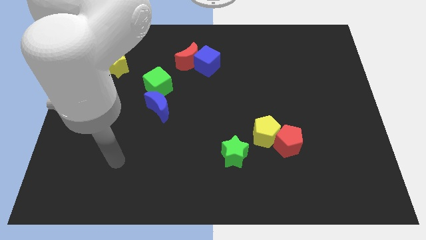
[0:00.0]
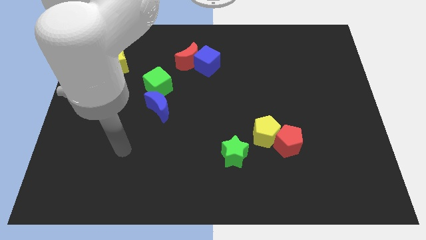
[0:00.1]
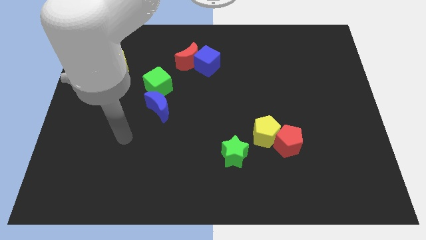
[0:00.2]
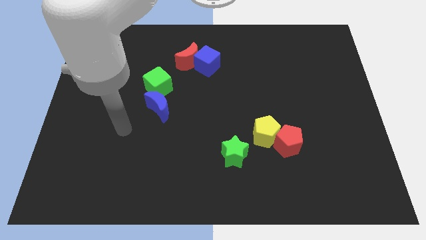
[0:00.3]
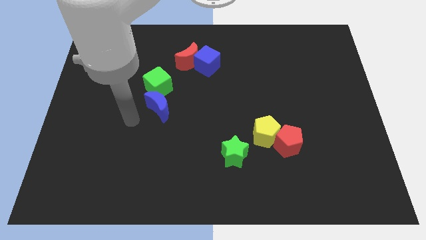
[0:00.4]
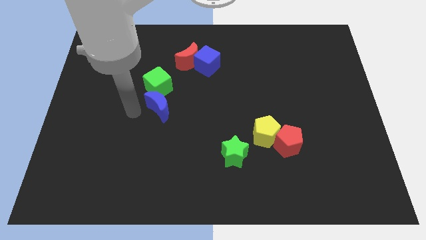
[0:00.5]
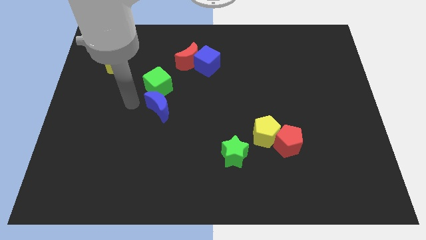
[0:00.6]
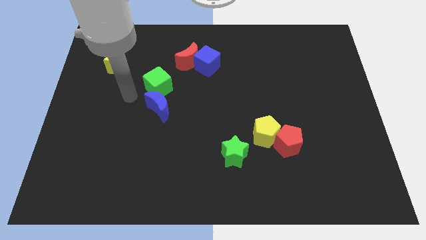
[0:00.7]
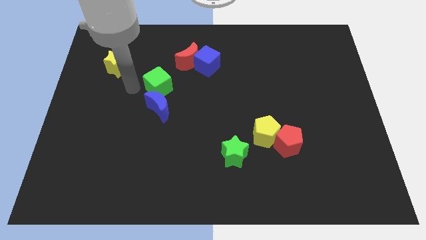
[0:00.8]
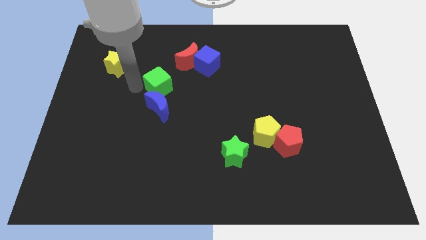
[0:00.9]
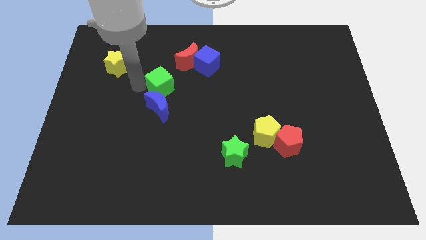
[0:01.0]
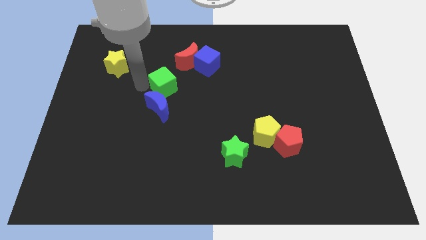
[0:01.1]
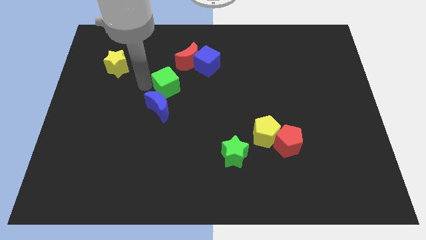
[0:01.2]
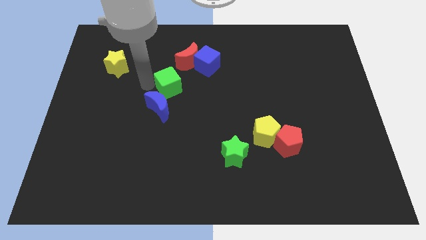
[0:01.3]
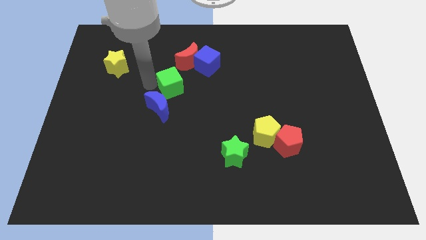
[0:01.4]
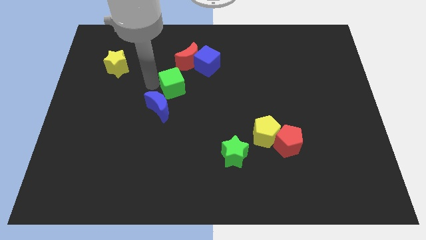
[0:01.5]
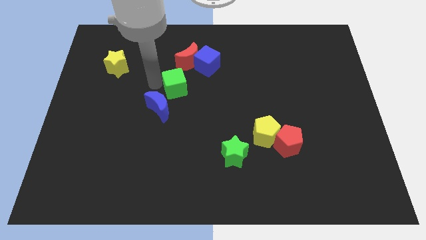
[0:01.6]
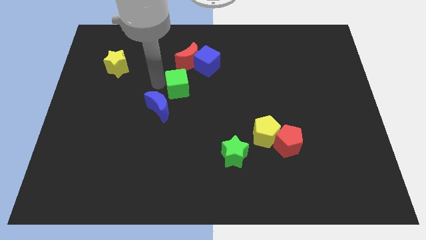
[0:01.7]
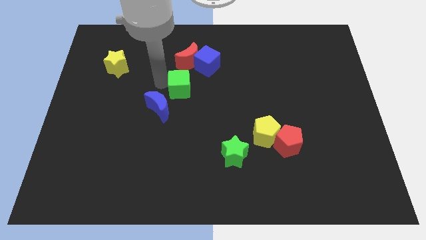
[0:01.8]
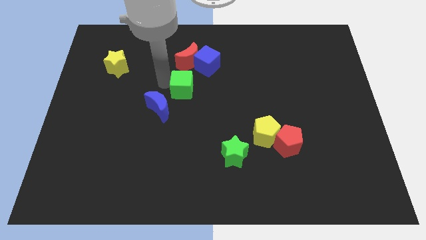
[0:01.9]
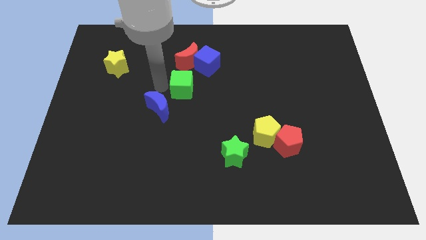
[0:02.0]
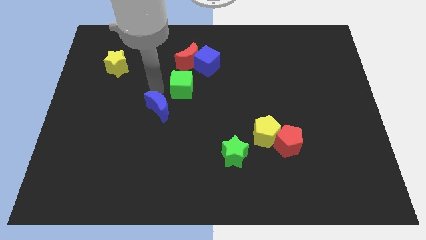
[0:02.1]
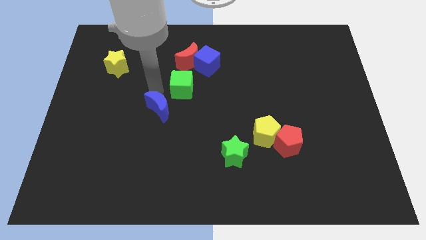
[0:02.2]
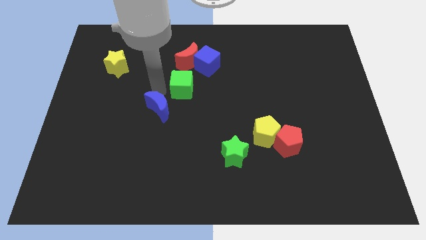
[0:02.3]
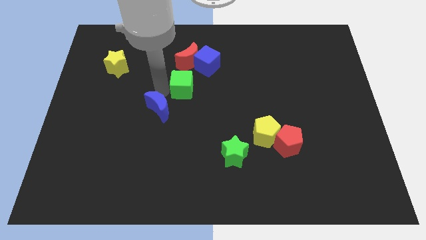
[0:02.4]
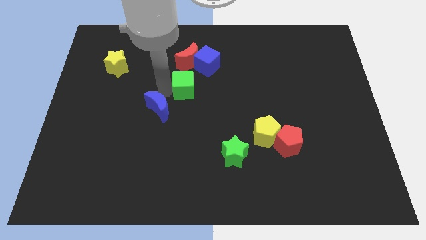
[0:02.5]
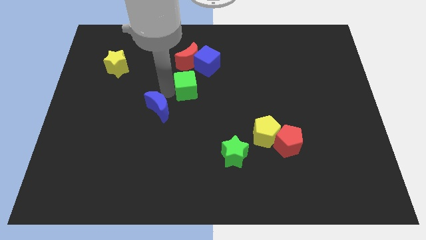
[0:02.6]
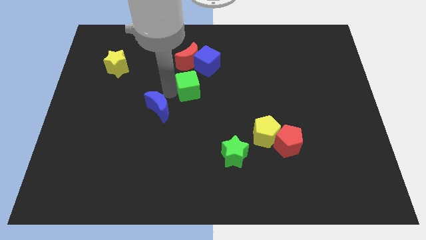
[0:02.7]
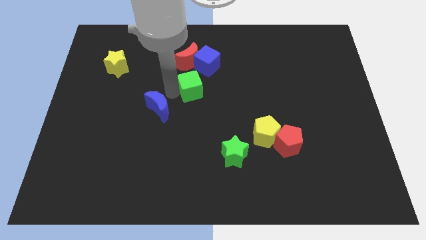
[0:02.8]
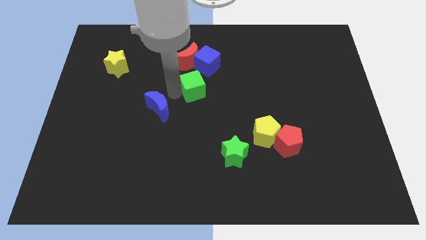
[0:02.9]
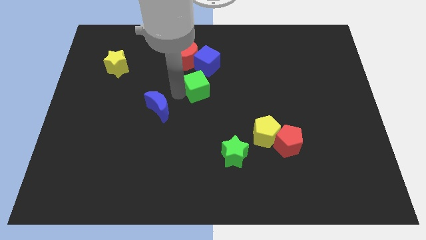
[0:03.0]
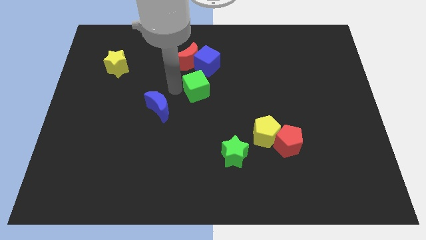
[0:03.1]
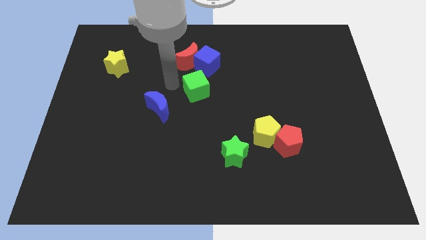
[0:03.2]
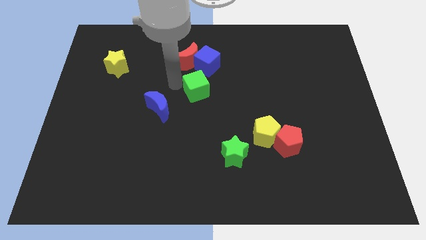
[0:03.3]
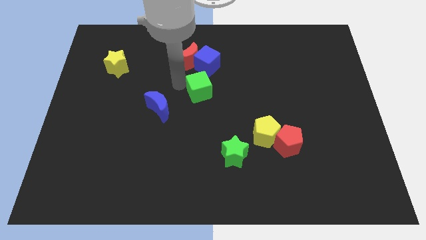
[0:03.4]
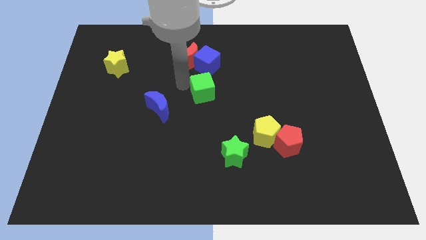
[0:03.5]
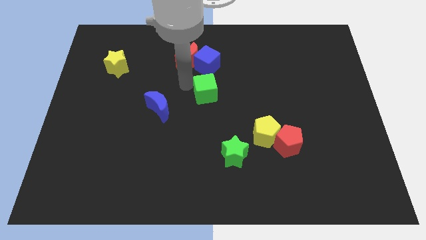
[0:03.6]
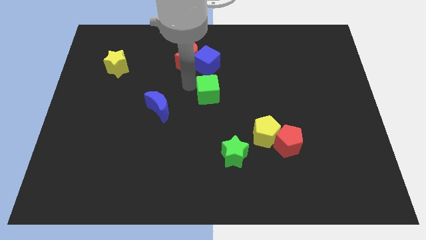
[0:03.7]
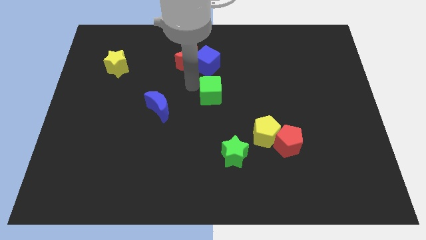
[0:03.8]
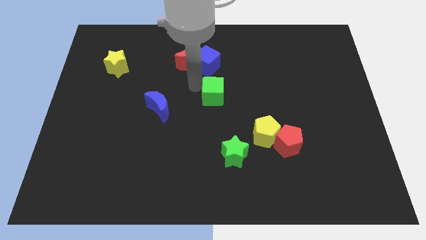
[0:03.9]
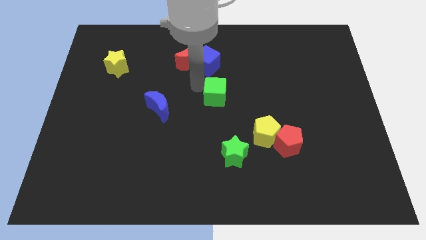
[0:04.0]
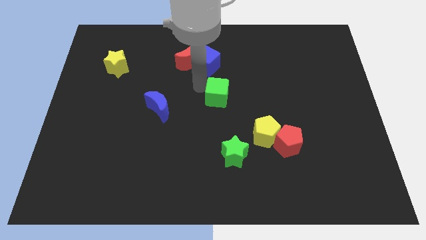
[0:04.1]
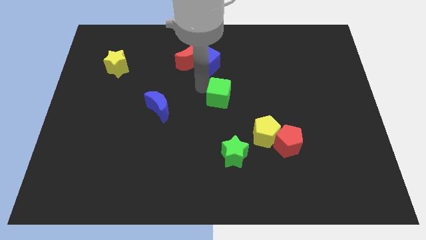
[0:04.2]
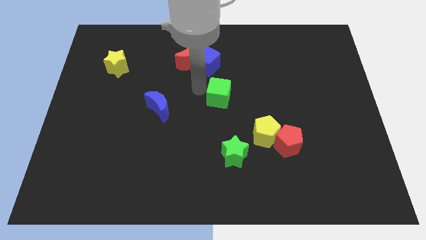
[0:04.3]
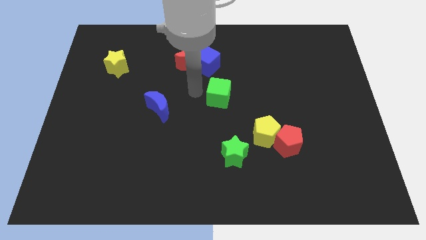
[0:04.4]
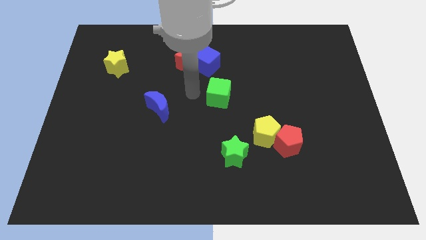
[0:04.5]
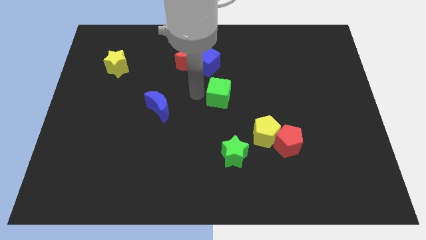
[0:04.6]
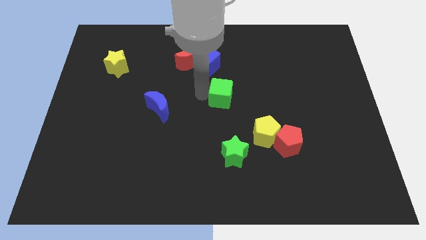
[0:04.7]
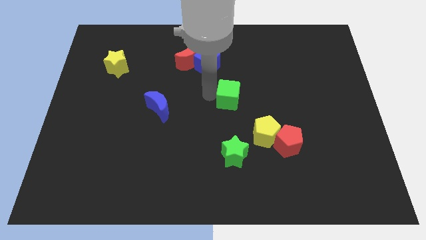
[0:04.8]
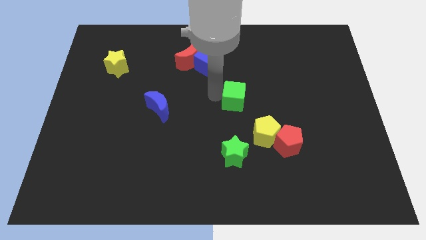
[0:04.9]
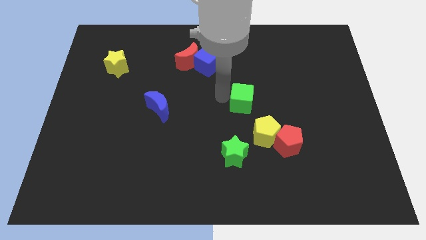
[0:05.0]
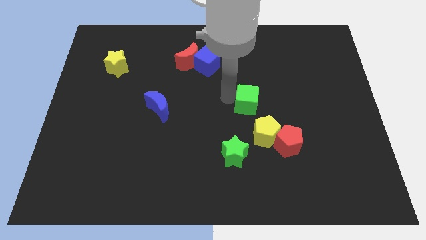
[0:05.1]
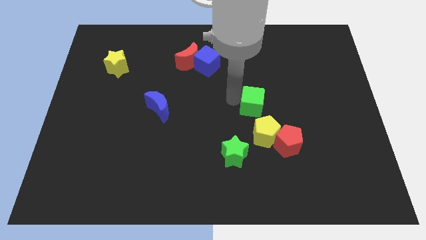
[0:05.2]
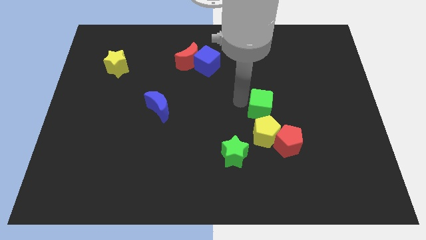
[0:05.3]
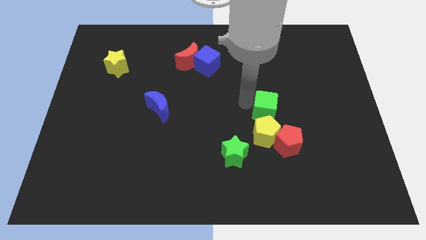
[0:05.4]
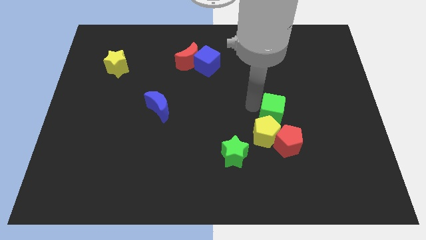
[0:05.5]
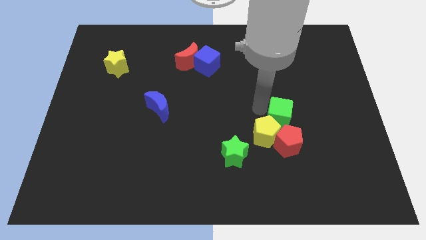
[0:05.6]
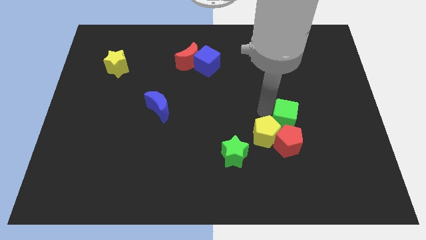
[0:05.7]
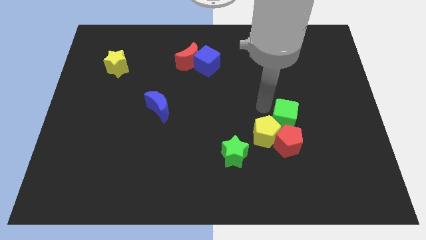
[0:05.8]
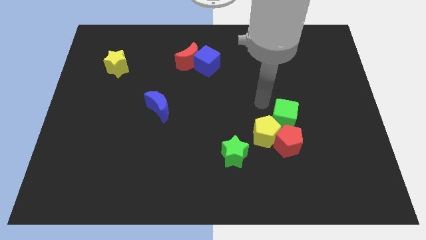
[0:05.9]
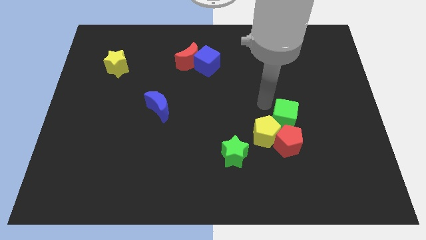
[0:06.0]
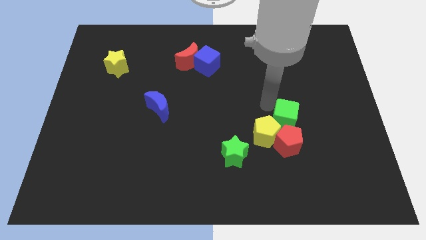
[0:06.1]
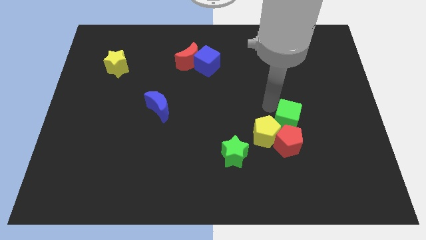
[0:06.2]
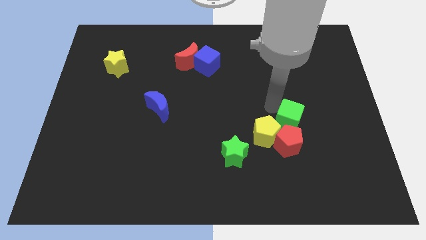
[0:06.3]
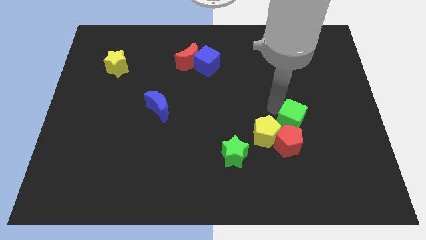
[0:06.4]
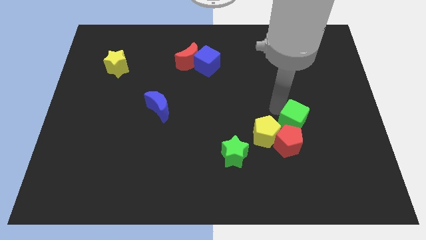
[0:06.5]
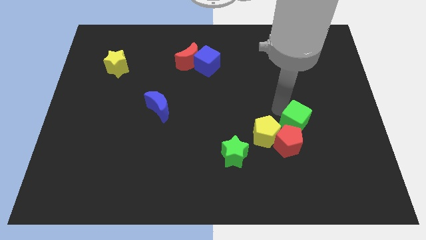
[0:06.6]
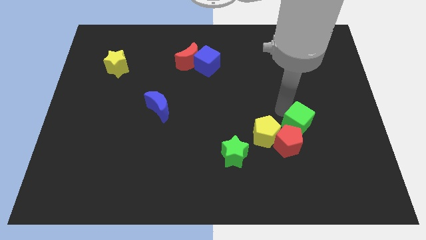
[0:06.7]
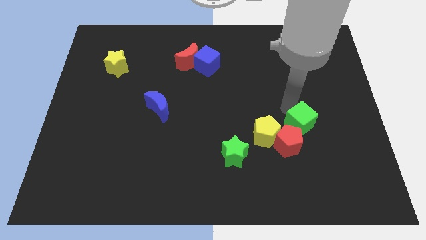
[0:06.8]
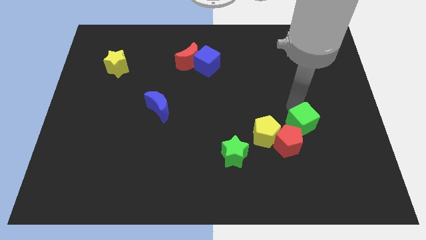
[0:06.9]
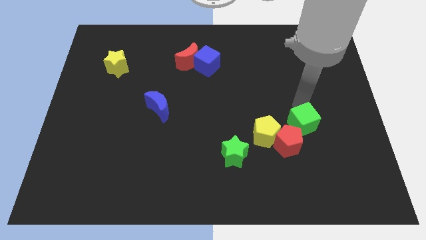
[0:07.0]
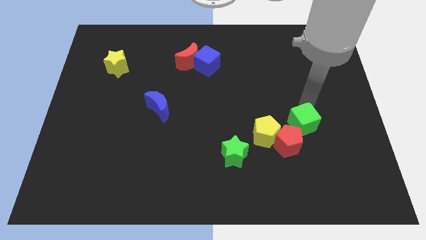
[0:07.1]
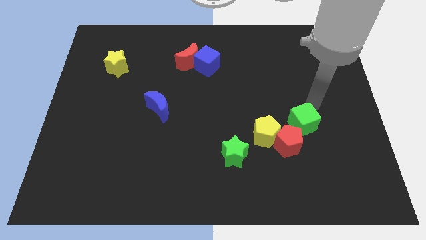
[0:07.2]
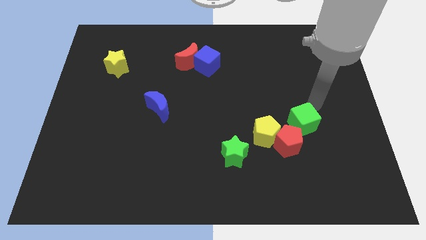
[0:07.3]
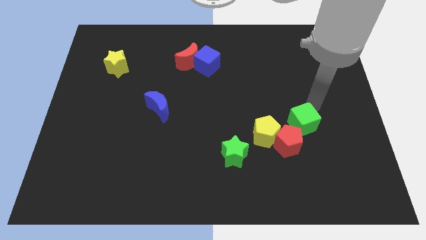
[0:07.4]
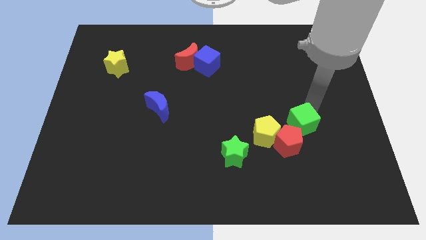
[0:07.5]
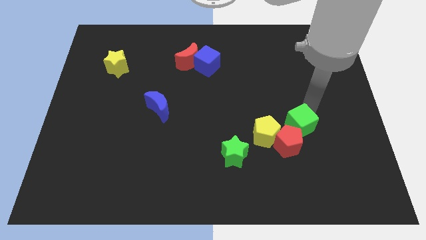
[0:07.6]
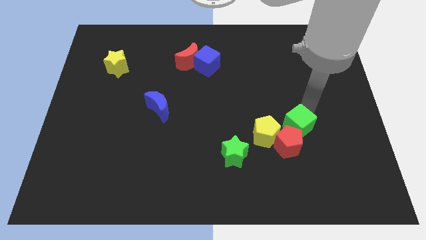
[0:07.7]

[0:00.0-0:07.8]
move the green cube next to the red pentagon
